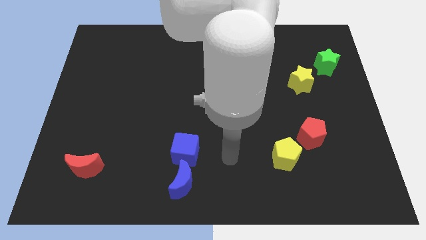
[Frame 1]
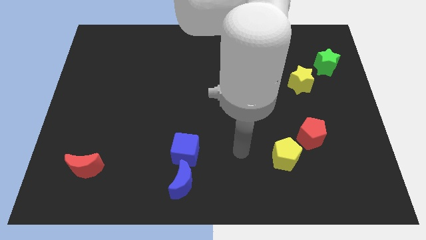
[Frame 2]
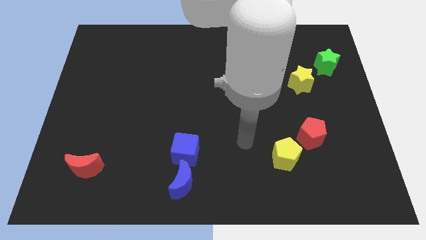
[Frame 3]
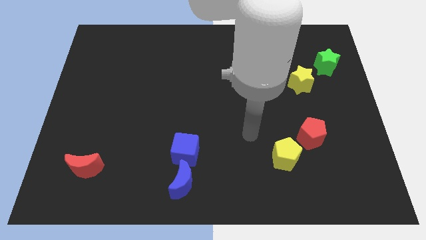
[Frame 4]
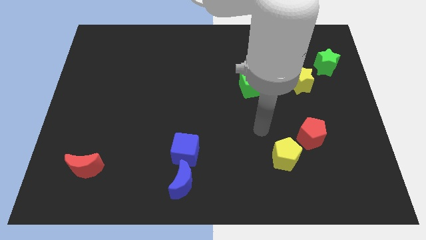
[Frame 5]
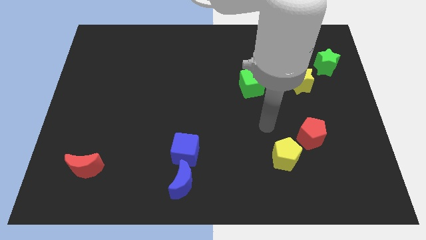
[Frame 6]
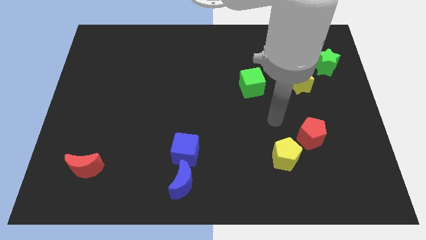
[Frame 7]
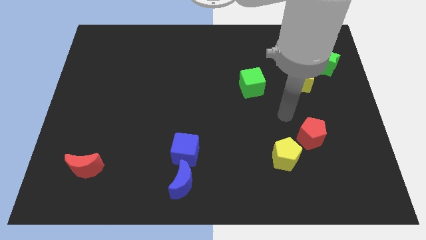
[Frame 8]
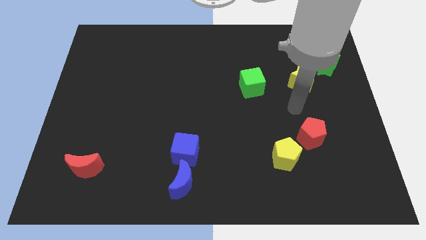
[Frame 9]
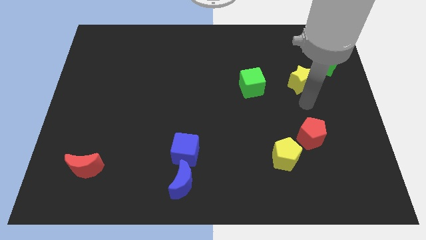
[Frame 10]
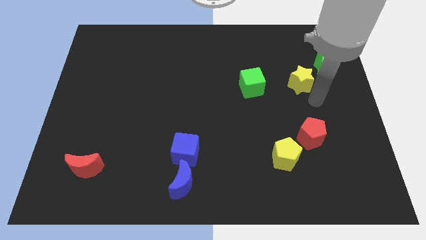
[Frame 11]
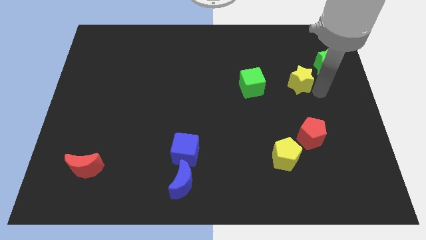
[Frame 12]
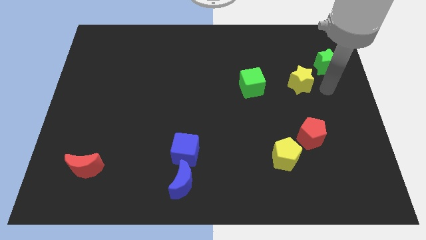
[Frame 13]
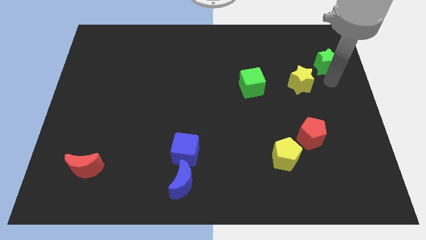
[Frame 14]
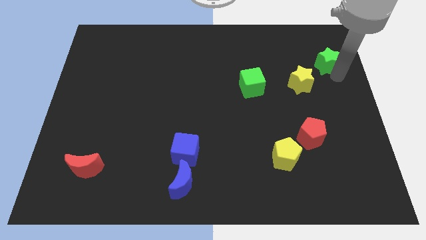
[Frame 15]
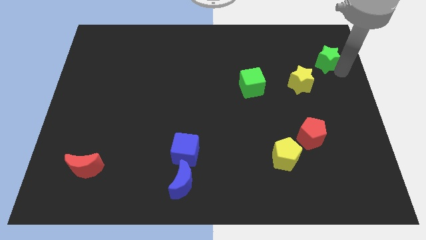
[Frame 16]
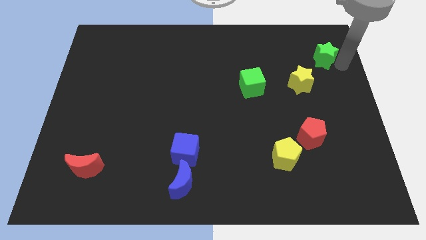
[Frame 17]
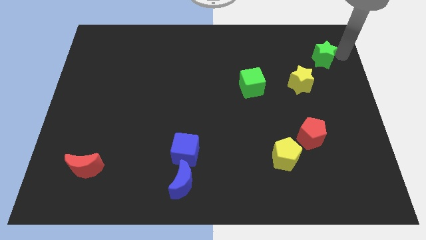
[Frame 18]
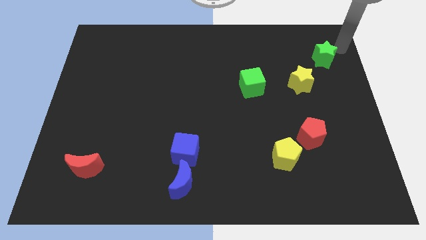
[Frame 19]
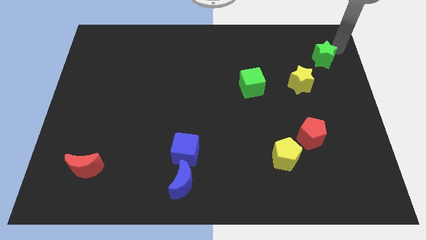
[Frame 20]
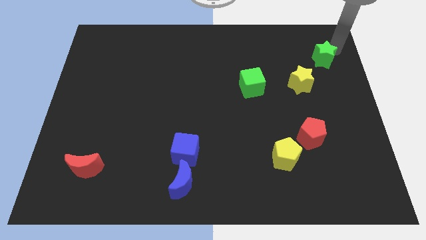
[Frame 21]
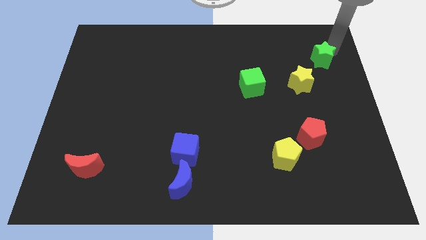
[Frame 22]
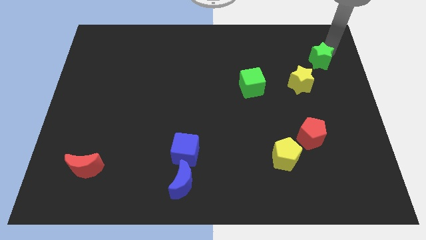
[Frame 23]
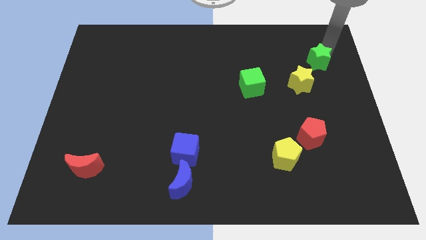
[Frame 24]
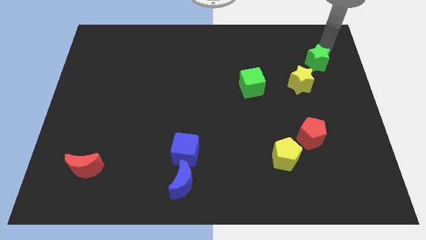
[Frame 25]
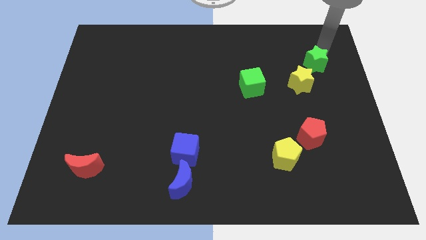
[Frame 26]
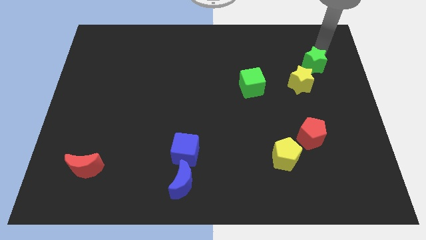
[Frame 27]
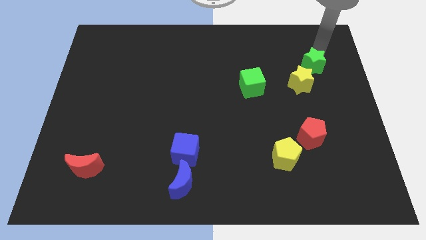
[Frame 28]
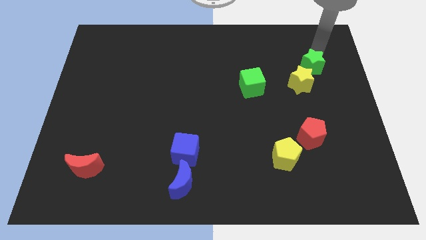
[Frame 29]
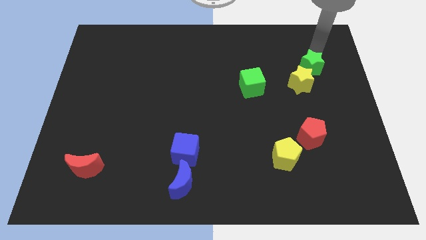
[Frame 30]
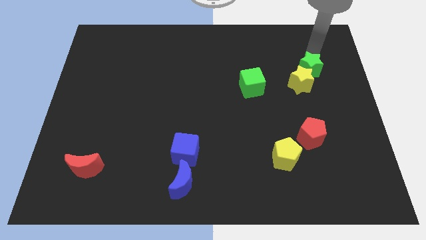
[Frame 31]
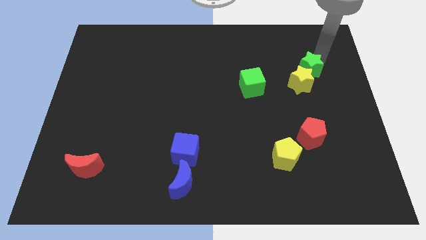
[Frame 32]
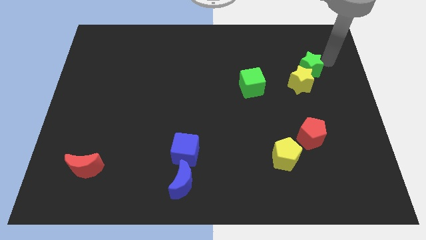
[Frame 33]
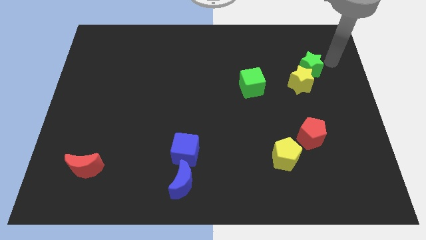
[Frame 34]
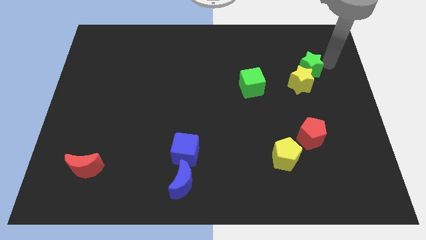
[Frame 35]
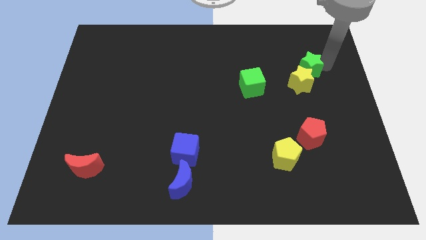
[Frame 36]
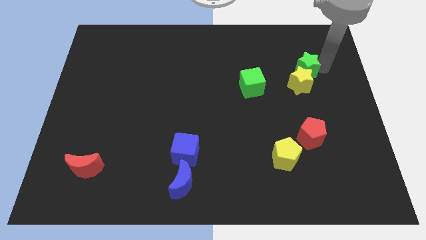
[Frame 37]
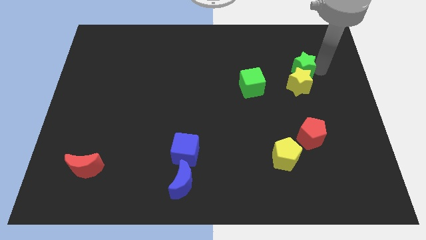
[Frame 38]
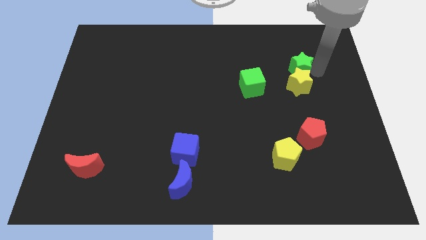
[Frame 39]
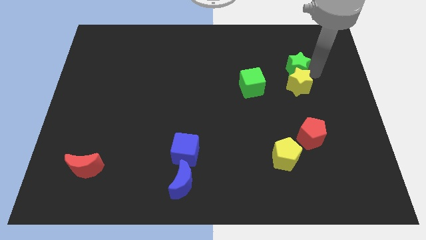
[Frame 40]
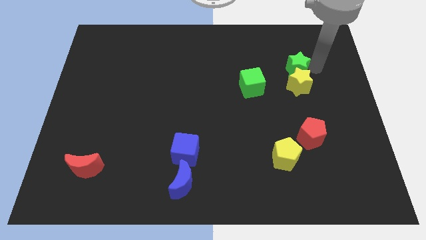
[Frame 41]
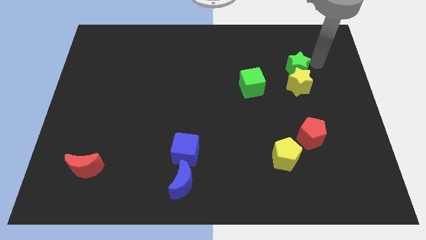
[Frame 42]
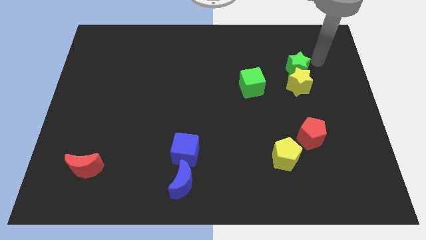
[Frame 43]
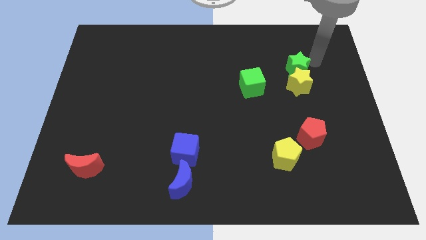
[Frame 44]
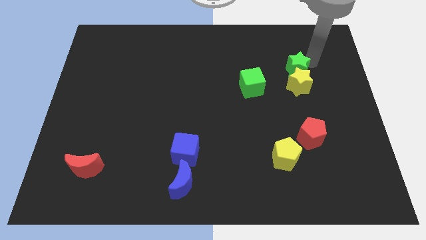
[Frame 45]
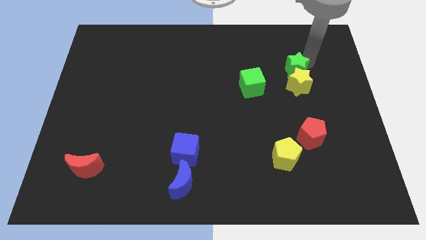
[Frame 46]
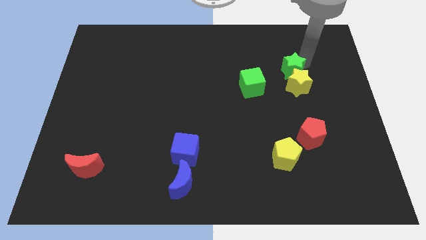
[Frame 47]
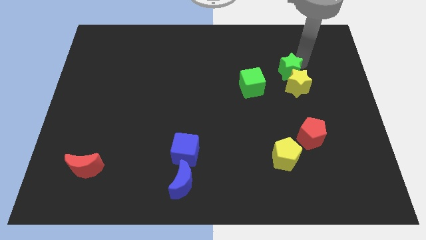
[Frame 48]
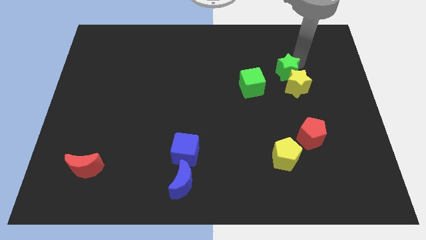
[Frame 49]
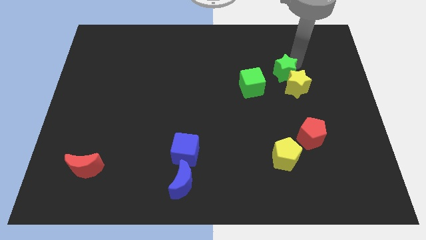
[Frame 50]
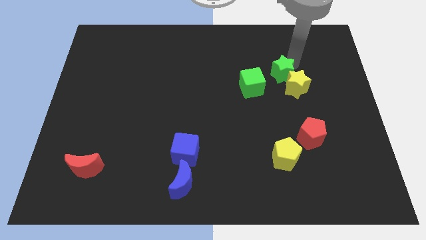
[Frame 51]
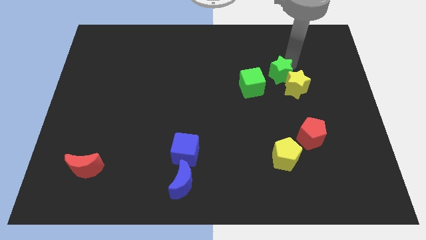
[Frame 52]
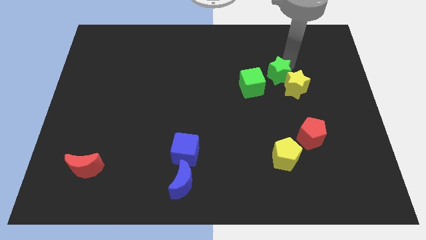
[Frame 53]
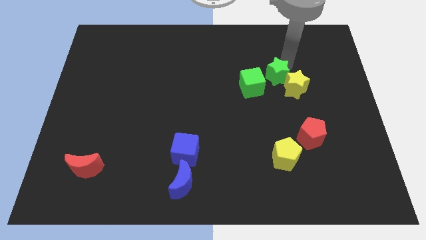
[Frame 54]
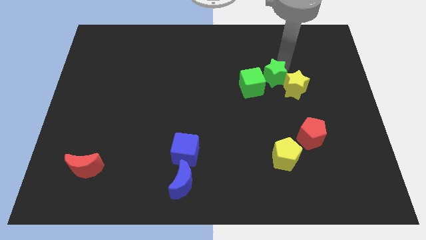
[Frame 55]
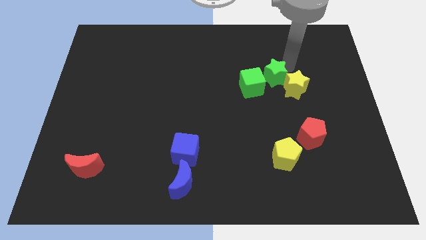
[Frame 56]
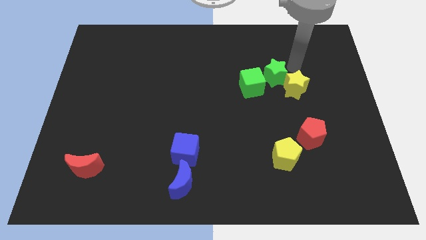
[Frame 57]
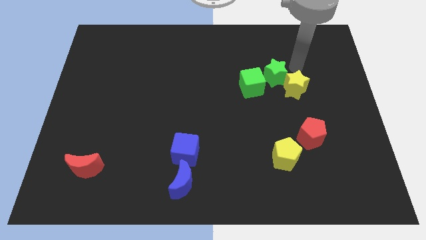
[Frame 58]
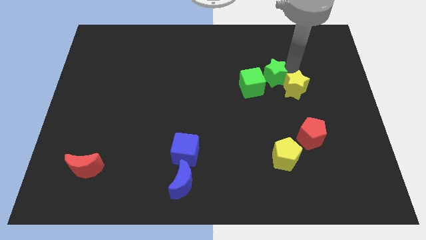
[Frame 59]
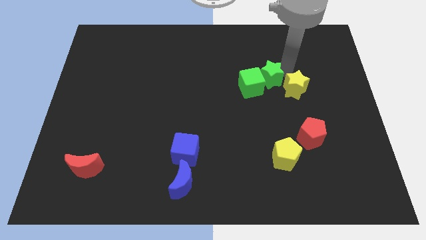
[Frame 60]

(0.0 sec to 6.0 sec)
put the green star towards the green cube

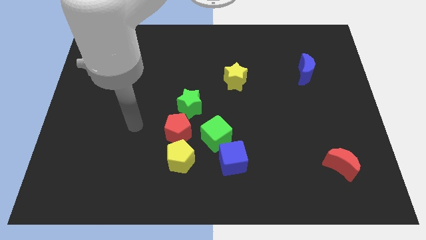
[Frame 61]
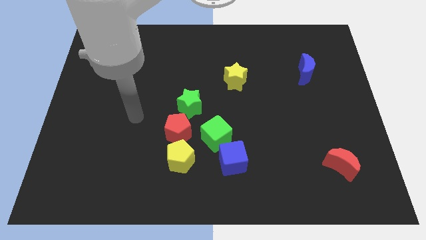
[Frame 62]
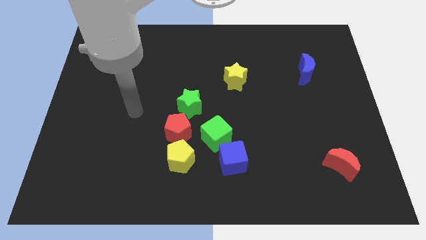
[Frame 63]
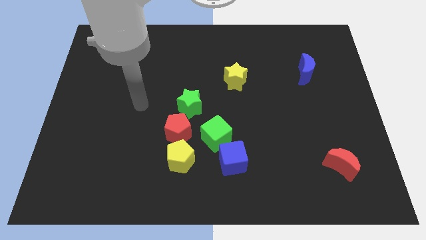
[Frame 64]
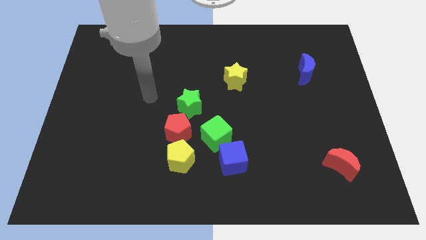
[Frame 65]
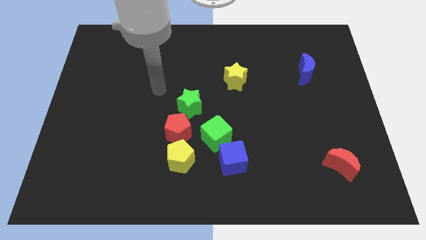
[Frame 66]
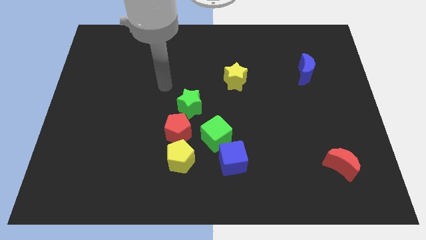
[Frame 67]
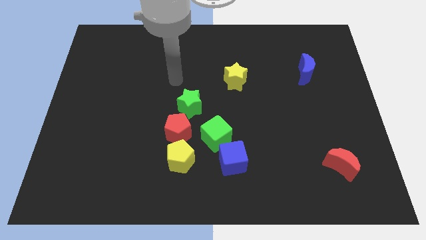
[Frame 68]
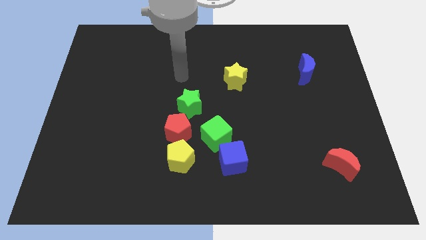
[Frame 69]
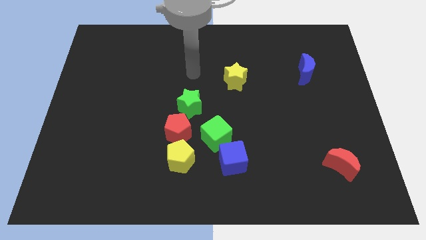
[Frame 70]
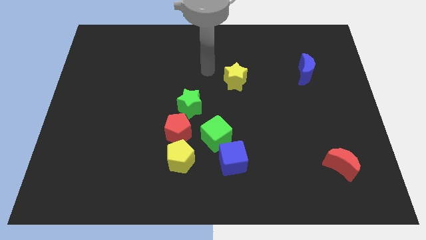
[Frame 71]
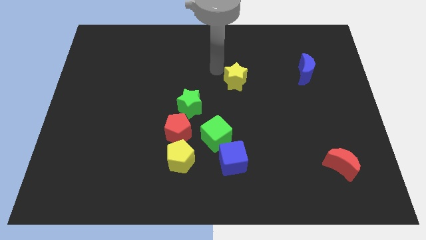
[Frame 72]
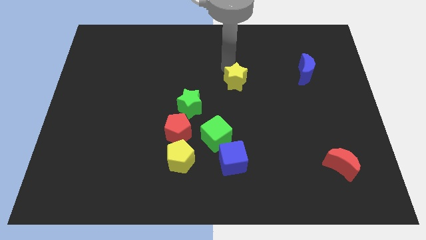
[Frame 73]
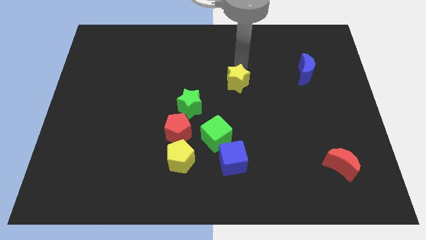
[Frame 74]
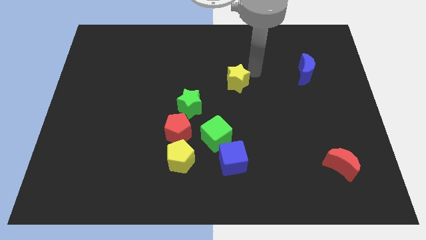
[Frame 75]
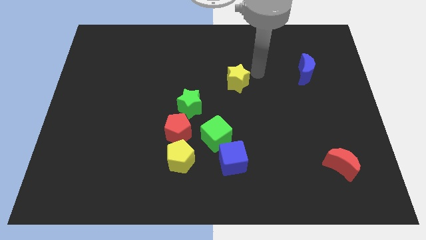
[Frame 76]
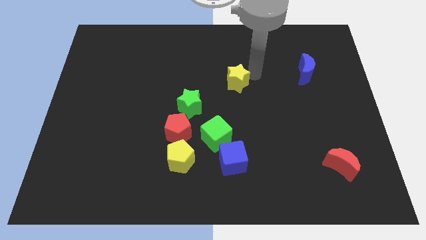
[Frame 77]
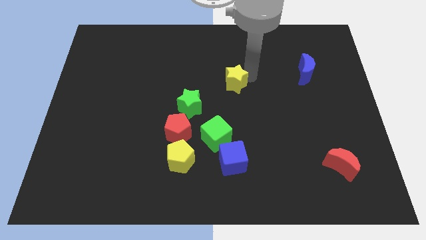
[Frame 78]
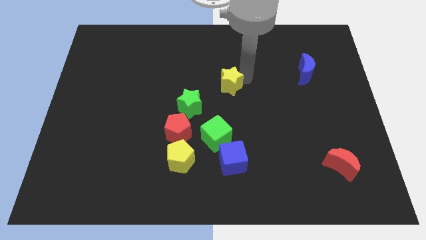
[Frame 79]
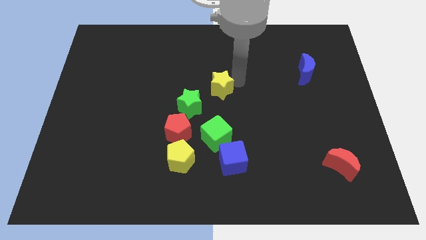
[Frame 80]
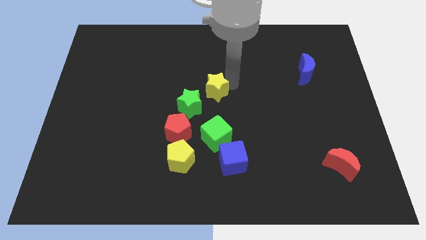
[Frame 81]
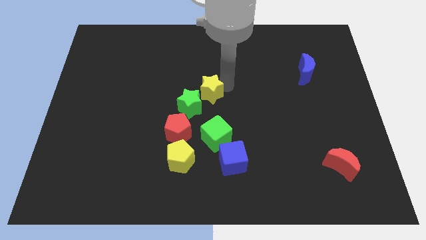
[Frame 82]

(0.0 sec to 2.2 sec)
put the yellow star towards the green star
